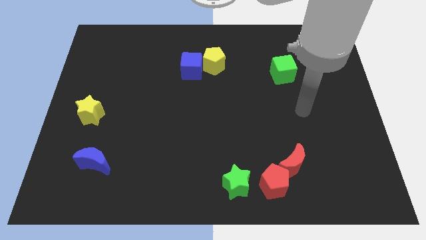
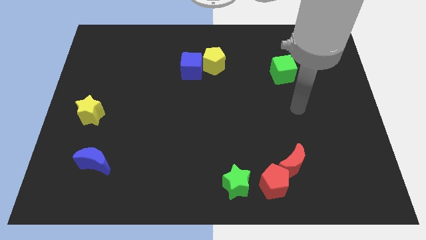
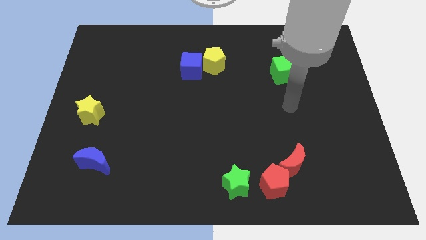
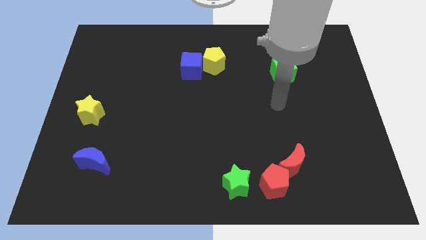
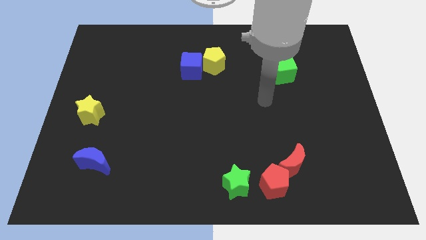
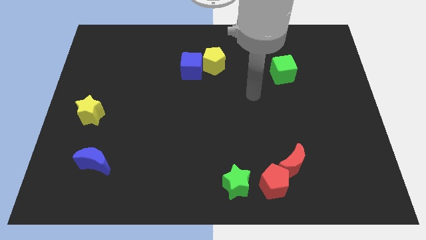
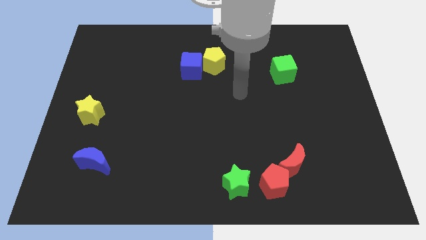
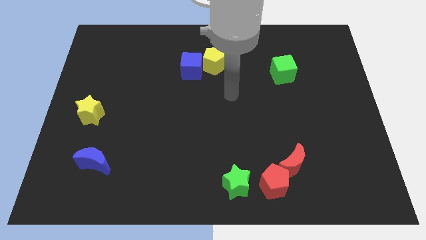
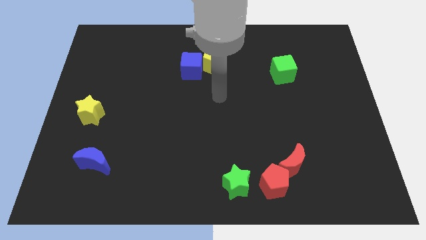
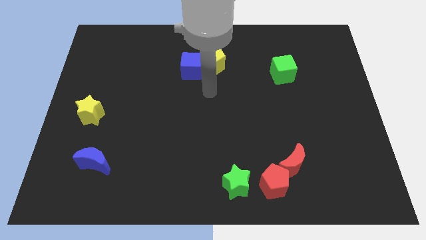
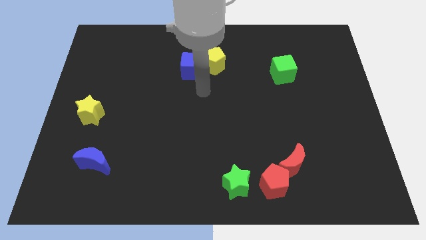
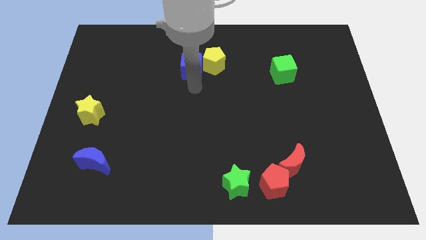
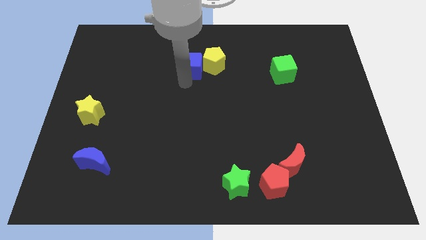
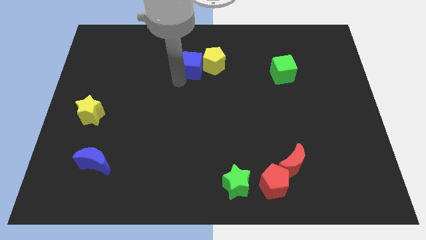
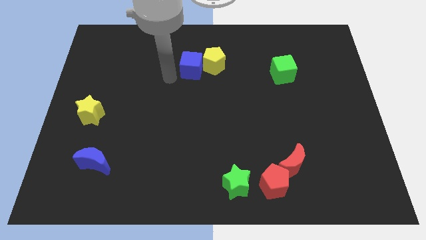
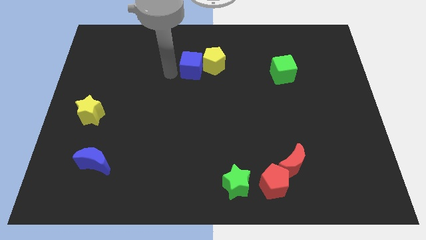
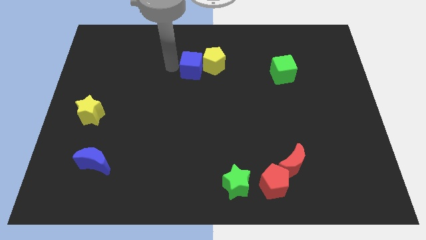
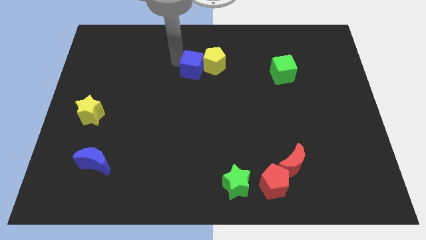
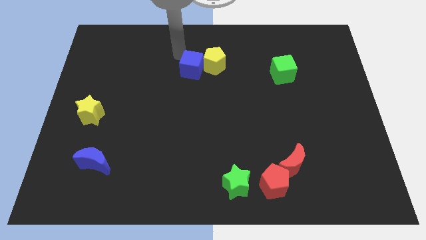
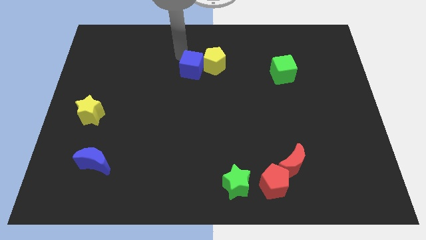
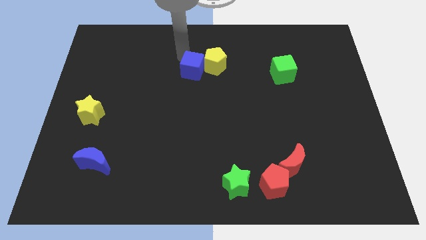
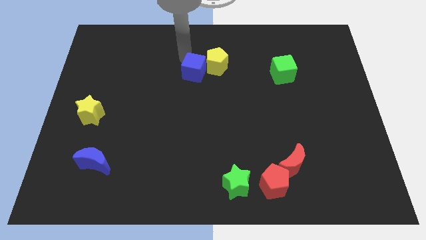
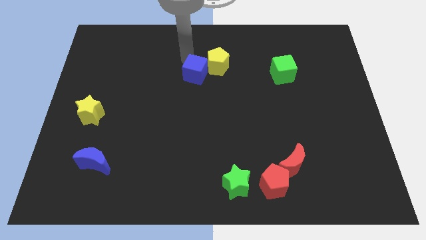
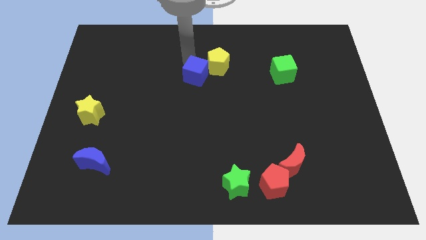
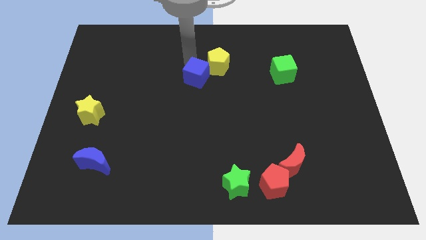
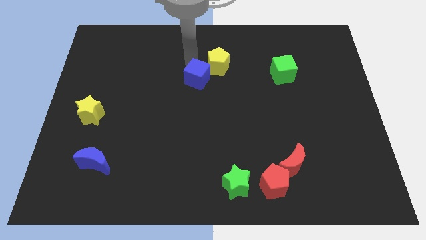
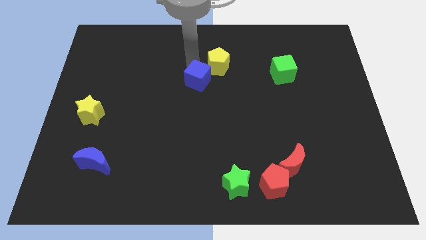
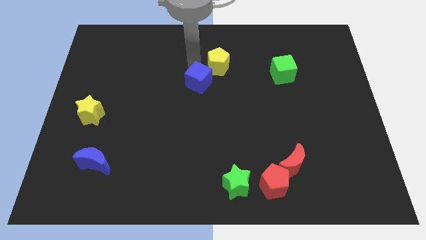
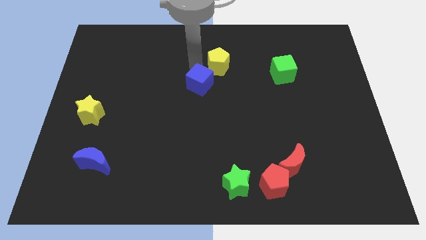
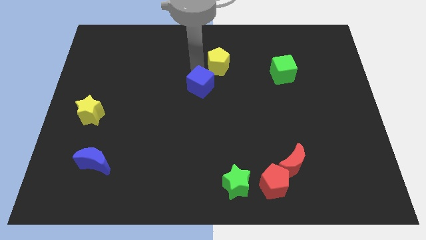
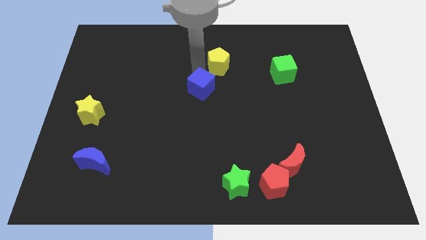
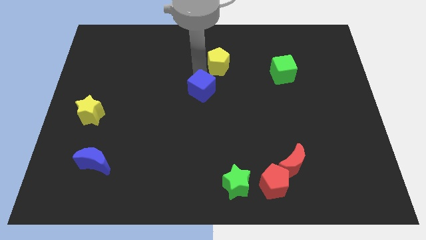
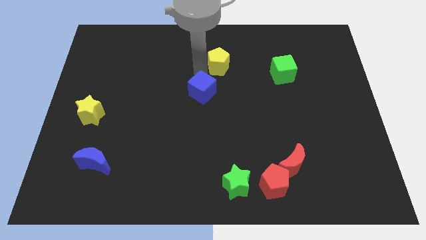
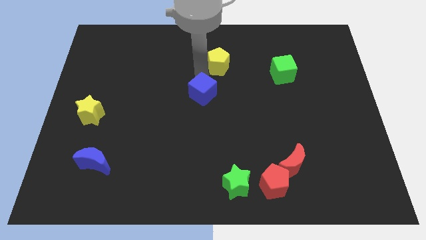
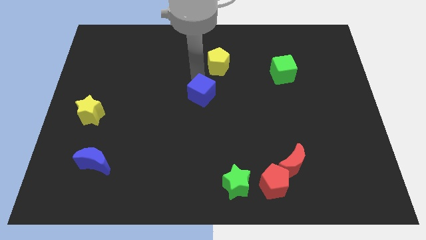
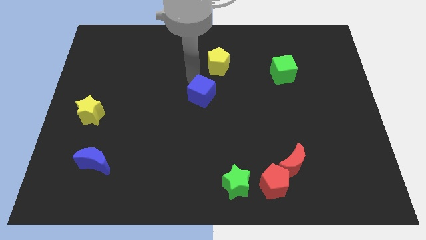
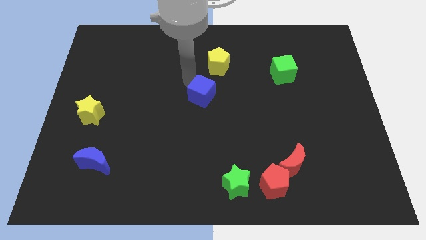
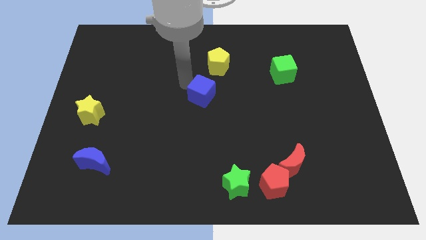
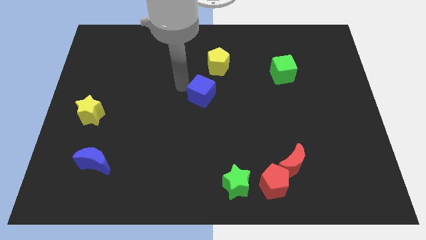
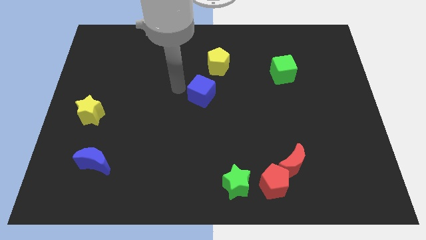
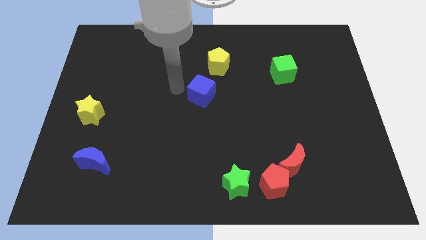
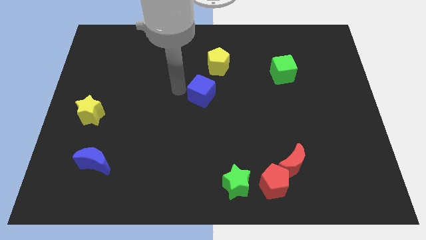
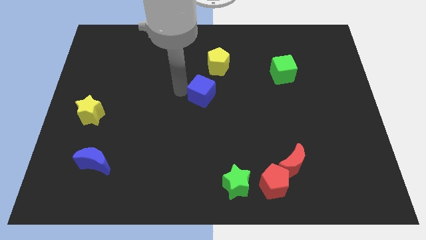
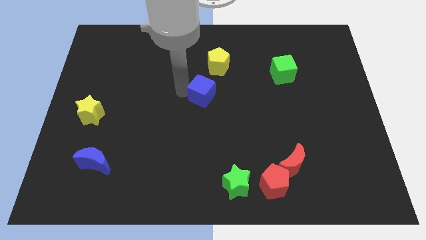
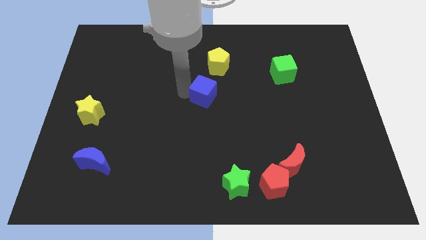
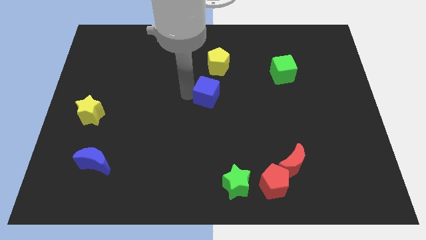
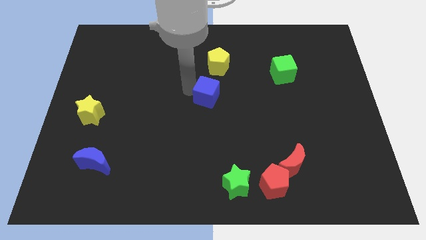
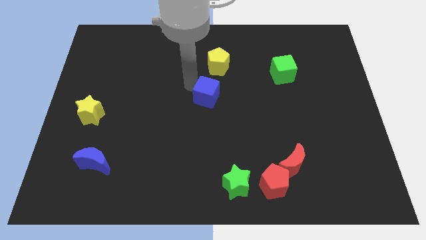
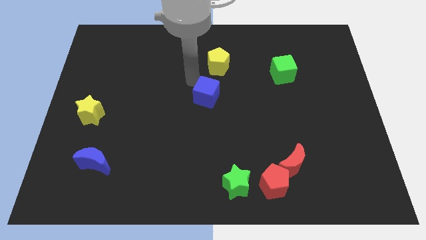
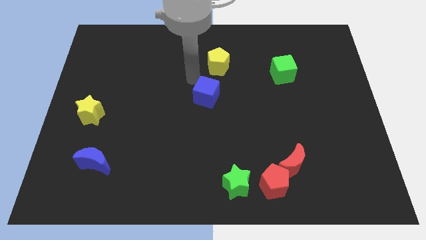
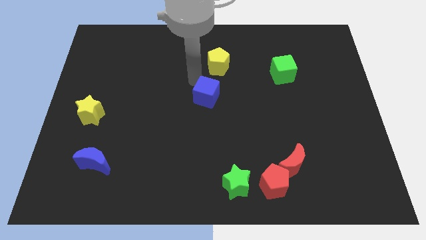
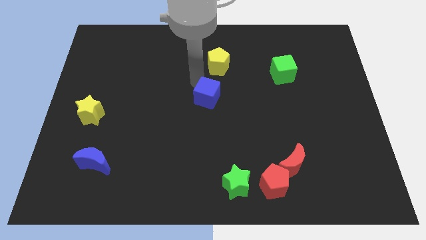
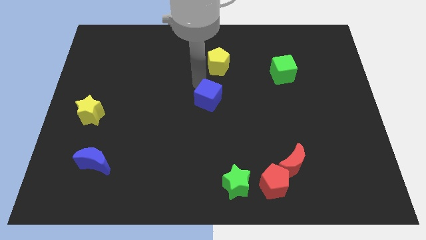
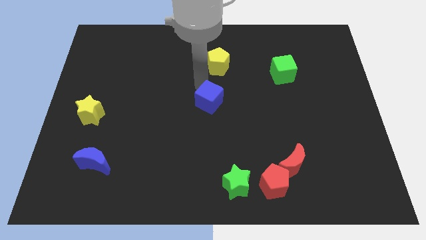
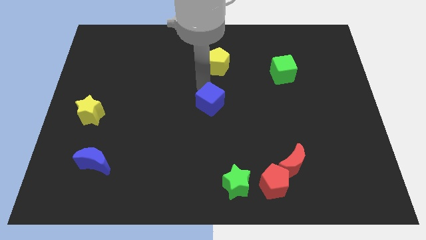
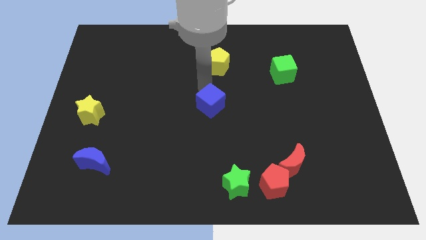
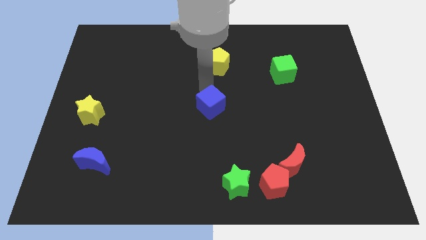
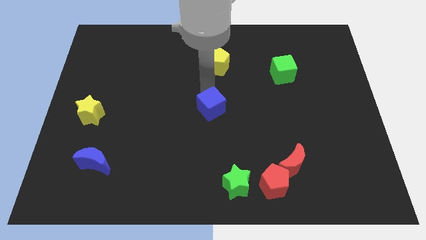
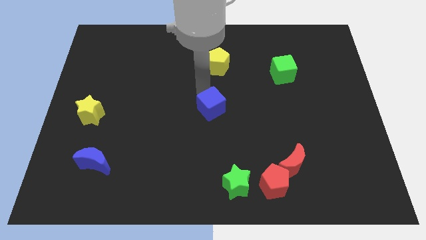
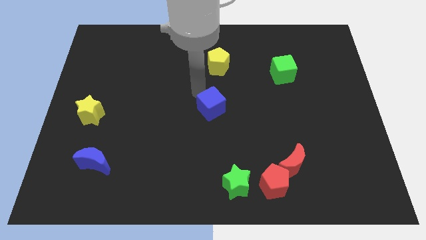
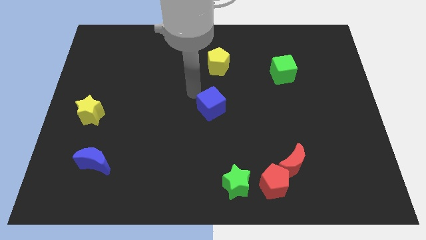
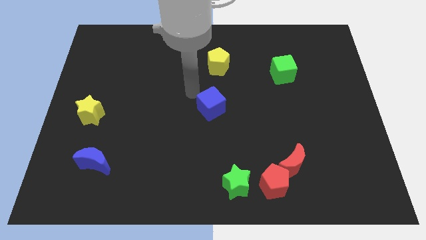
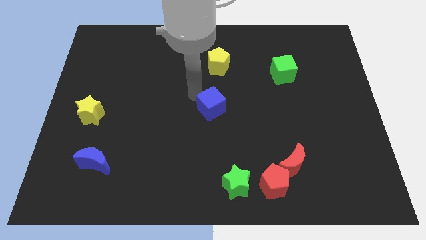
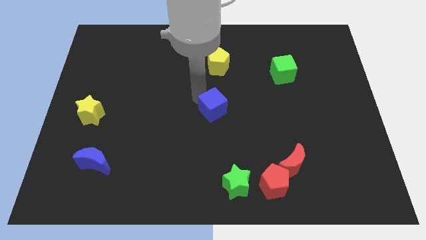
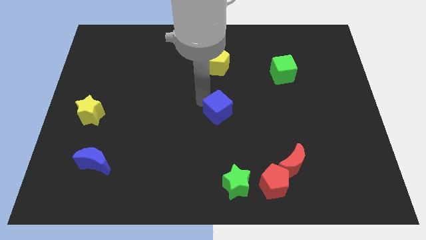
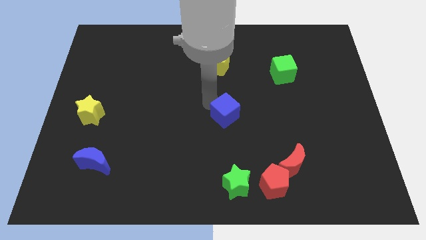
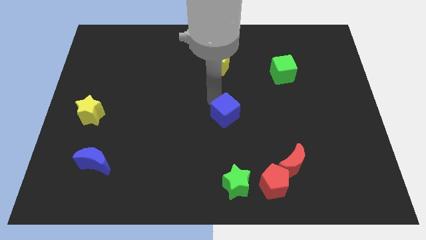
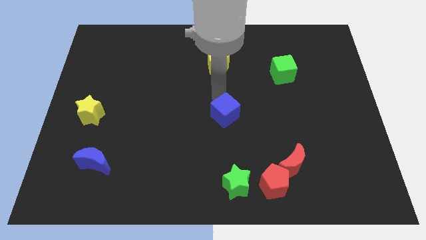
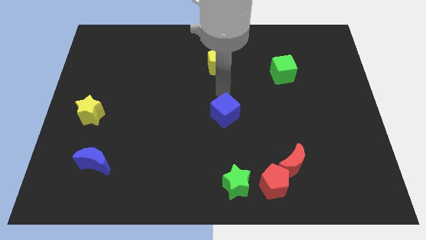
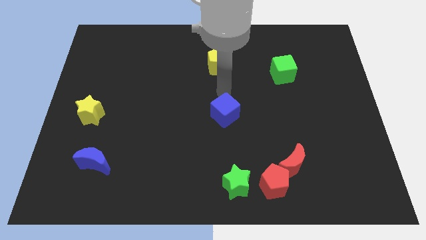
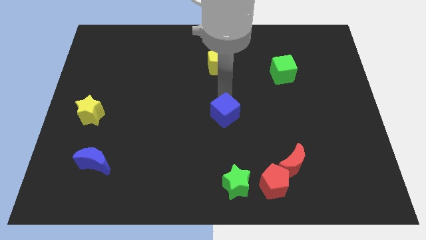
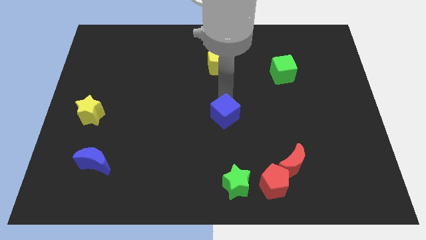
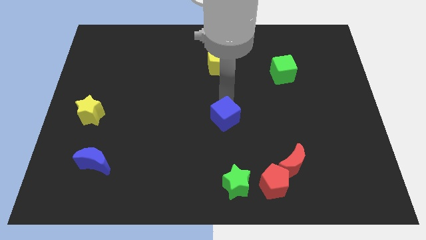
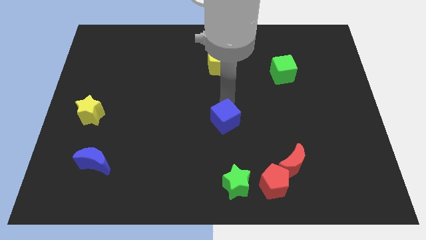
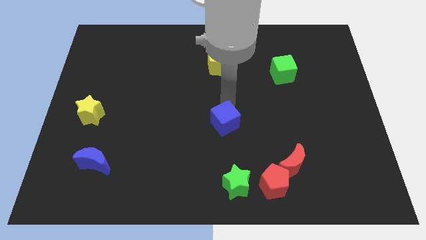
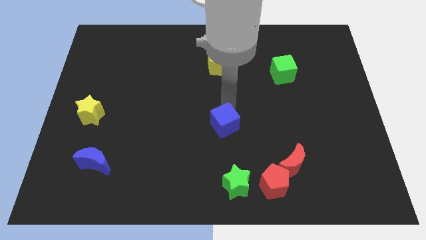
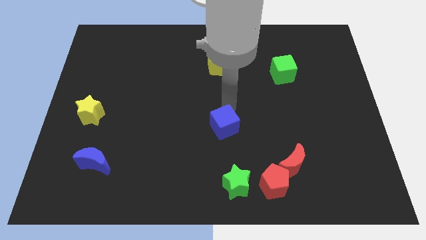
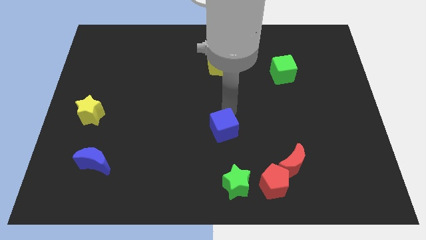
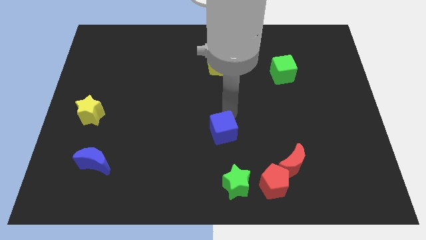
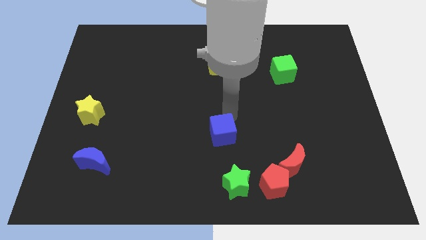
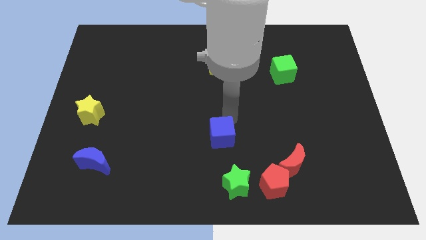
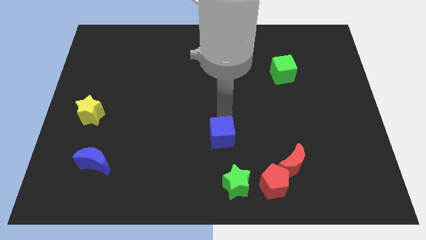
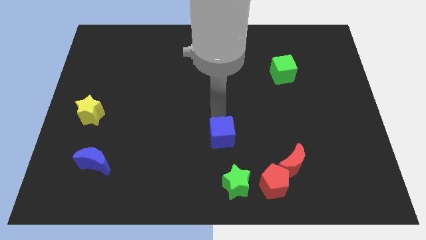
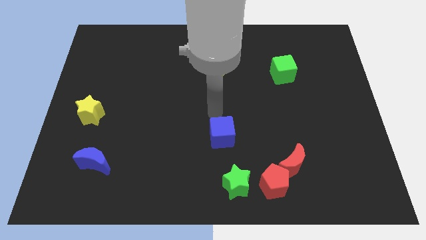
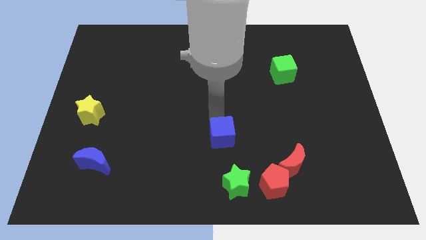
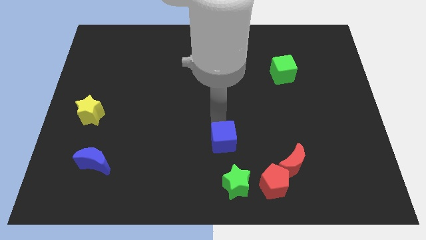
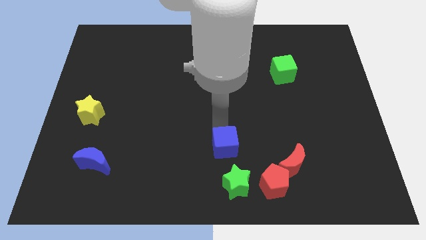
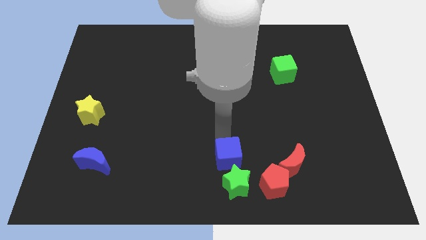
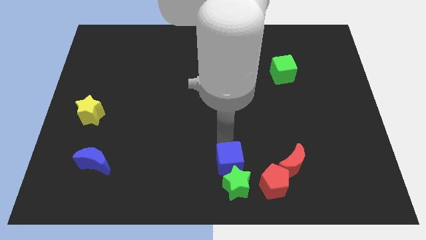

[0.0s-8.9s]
slide the blue cube towards the green star
